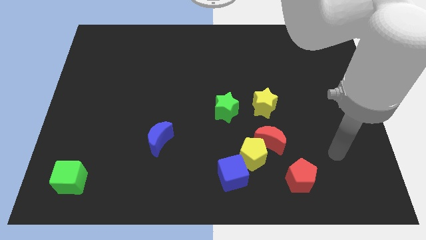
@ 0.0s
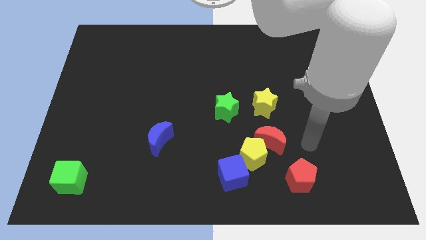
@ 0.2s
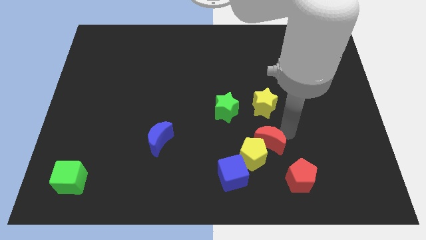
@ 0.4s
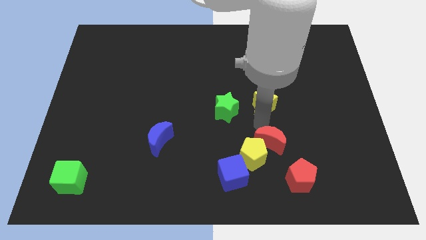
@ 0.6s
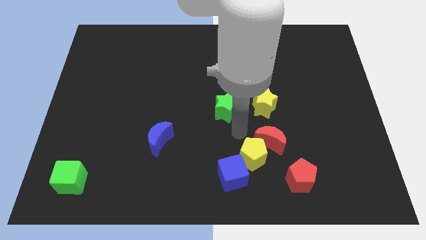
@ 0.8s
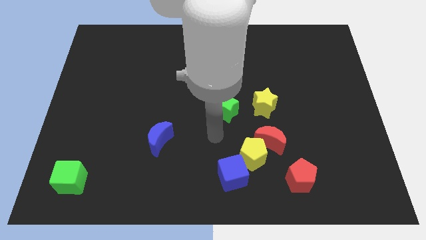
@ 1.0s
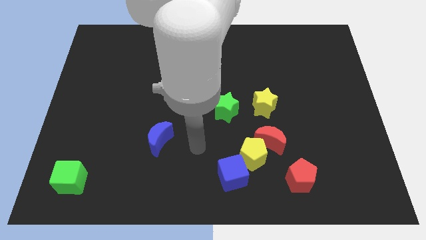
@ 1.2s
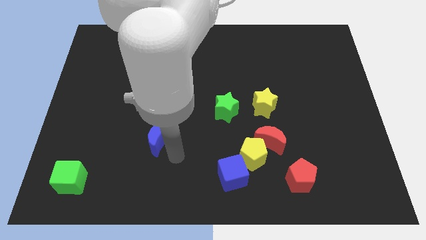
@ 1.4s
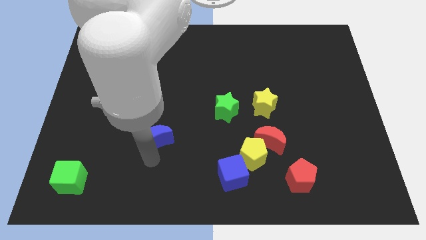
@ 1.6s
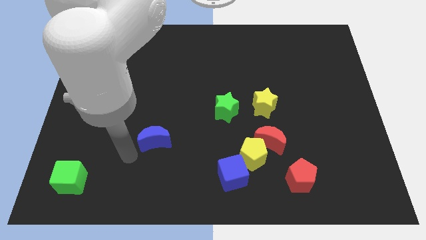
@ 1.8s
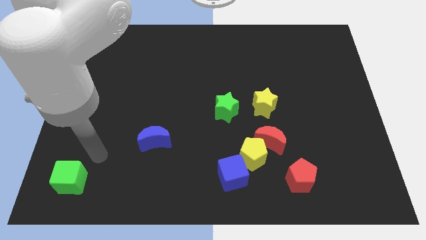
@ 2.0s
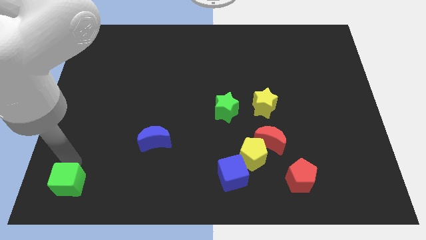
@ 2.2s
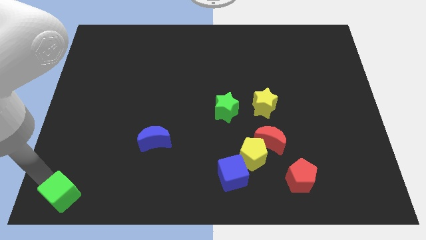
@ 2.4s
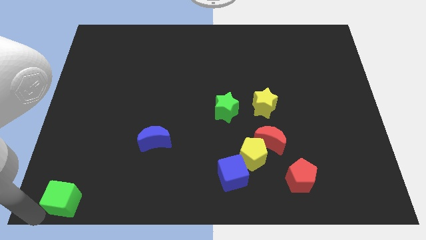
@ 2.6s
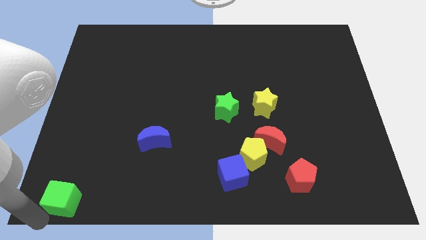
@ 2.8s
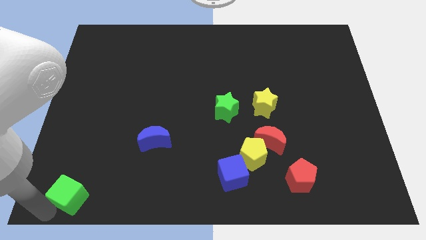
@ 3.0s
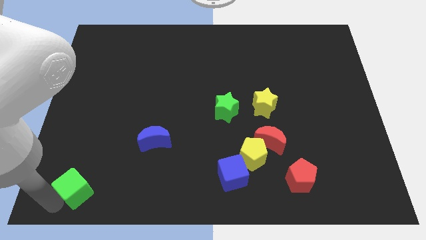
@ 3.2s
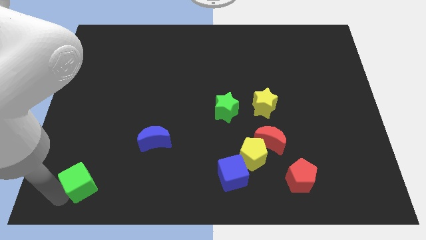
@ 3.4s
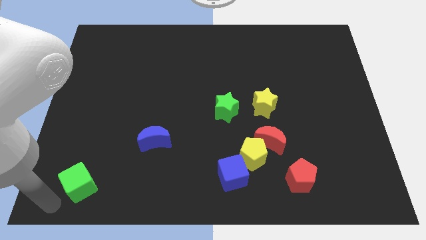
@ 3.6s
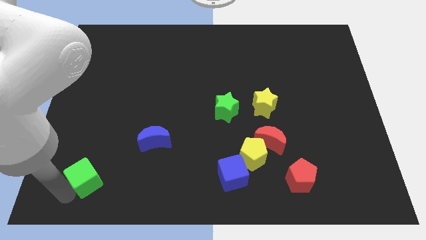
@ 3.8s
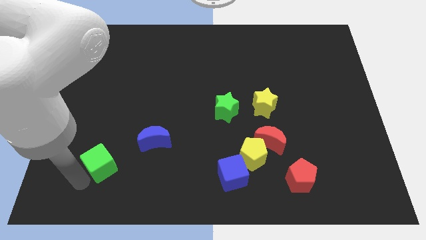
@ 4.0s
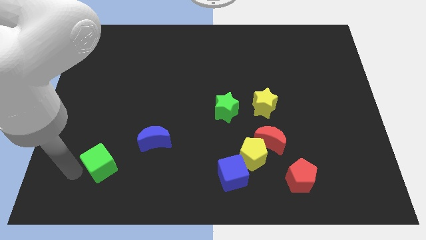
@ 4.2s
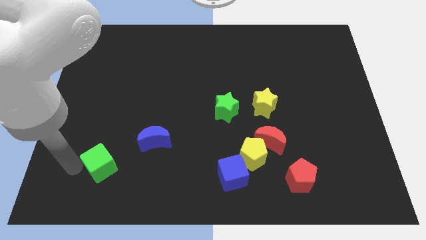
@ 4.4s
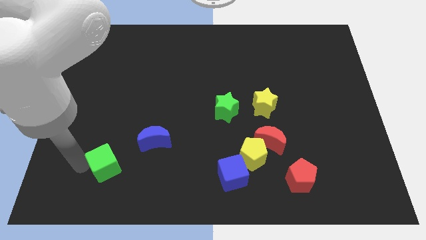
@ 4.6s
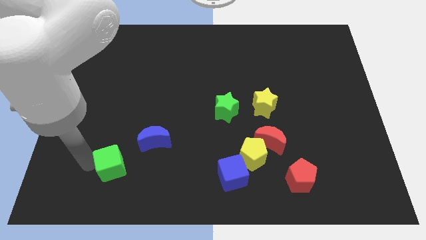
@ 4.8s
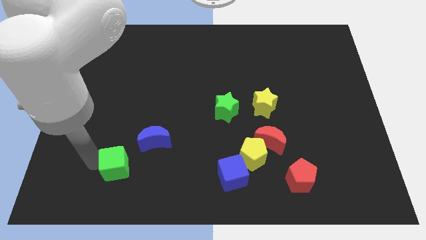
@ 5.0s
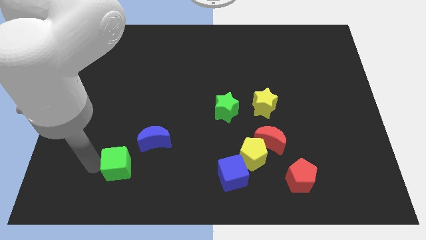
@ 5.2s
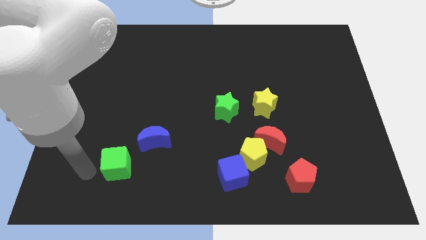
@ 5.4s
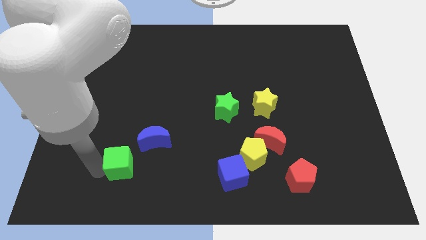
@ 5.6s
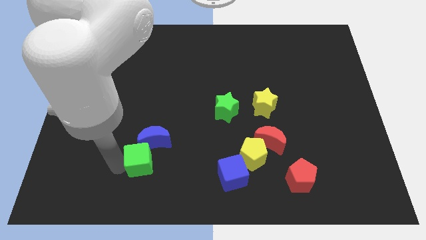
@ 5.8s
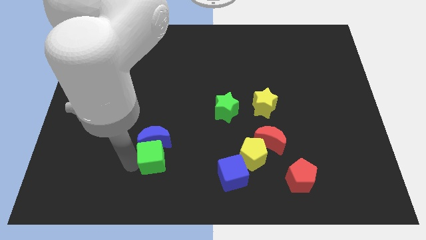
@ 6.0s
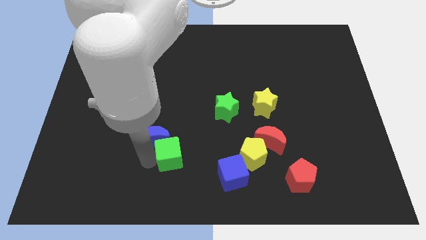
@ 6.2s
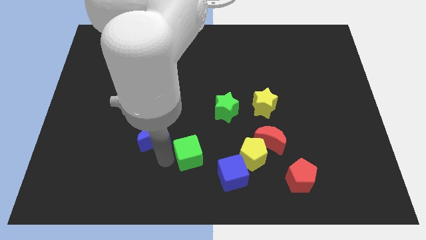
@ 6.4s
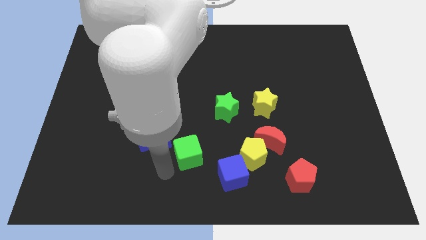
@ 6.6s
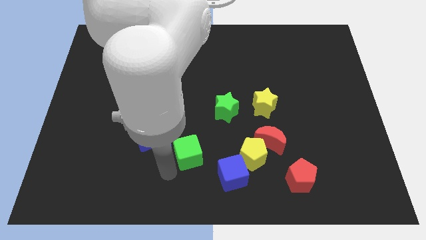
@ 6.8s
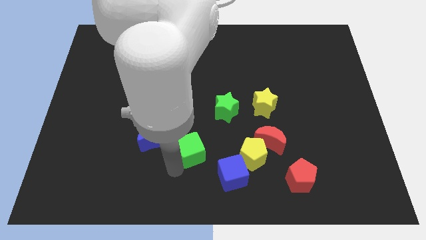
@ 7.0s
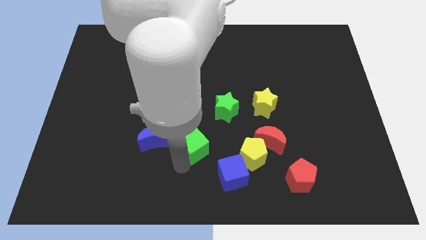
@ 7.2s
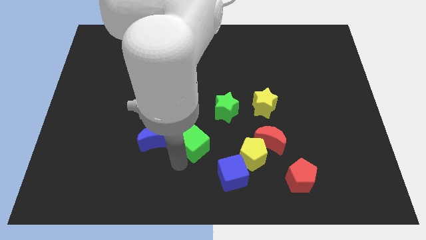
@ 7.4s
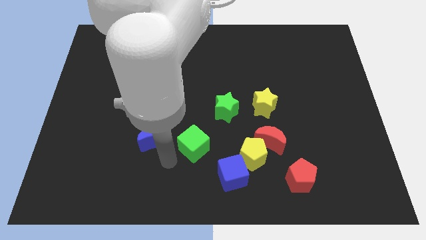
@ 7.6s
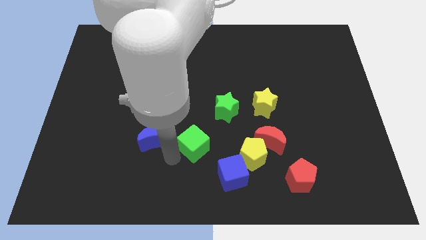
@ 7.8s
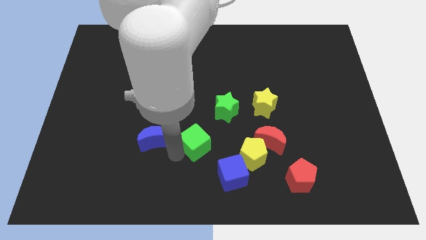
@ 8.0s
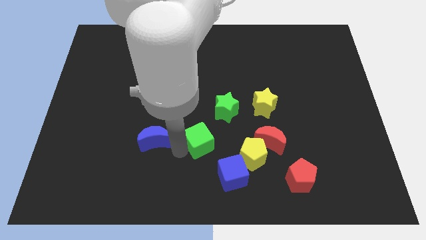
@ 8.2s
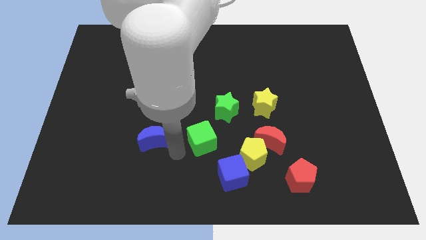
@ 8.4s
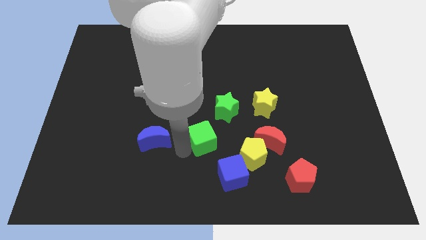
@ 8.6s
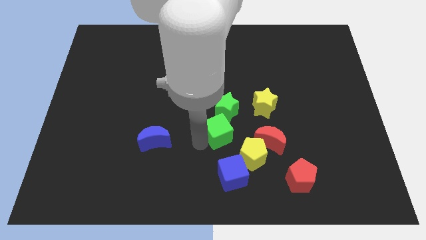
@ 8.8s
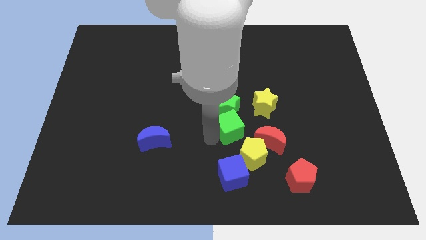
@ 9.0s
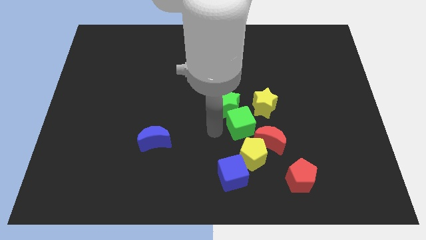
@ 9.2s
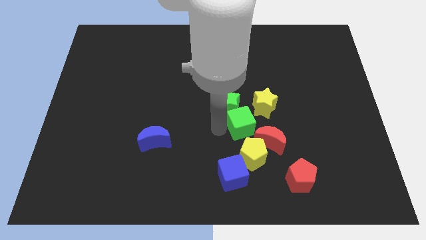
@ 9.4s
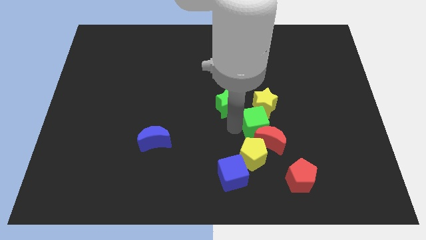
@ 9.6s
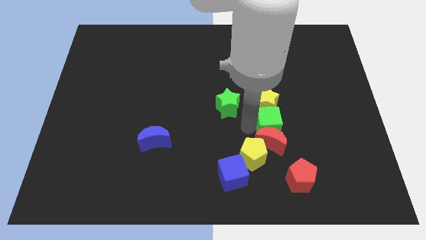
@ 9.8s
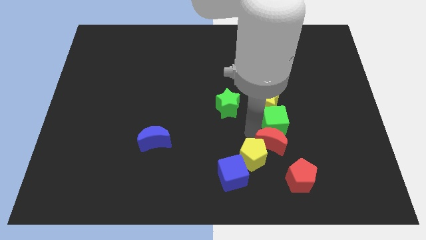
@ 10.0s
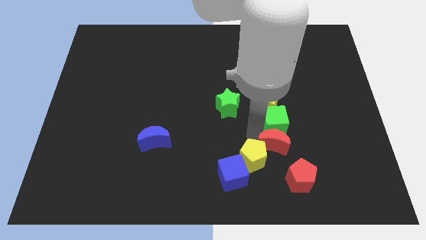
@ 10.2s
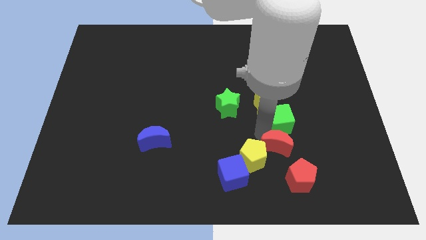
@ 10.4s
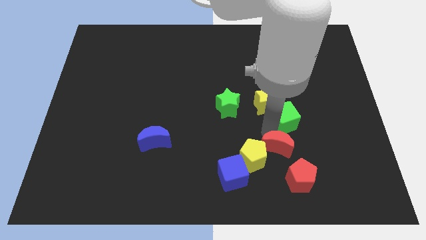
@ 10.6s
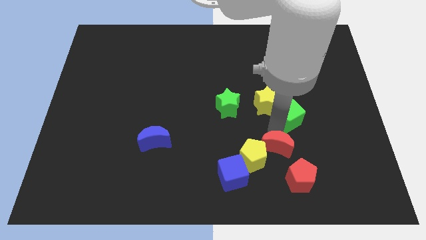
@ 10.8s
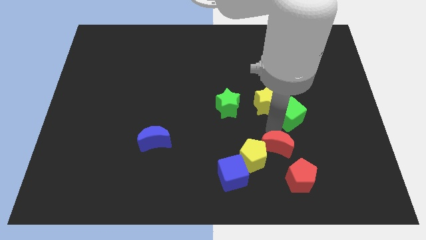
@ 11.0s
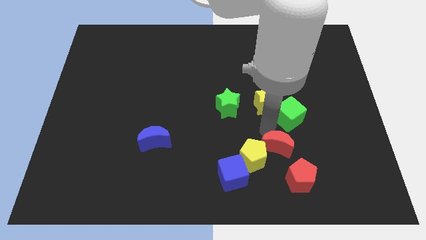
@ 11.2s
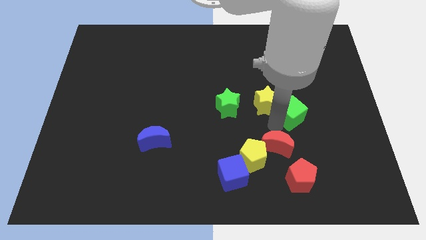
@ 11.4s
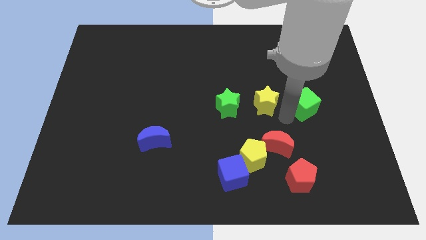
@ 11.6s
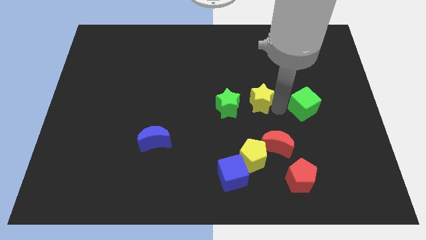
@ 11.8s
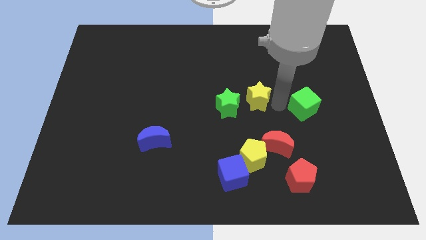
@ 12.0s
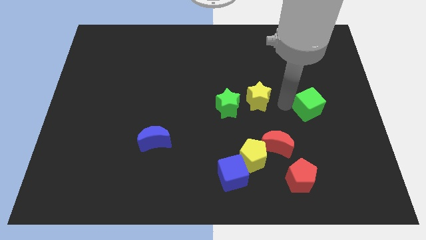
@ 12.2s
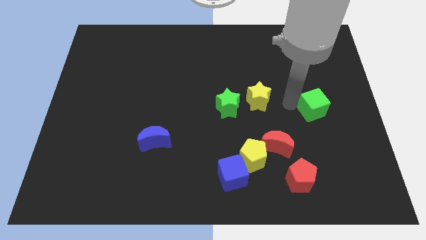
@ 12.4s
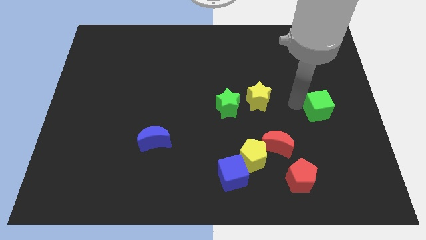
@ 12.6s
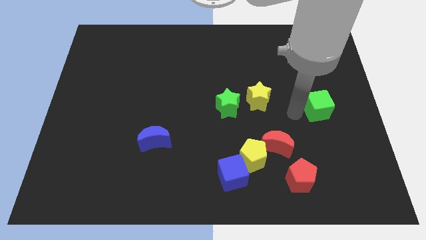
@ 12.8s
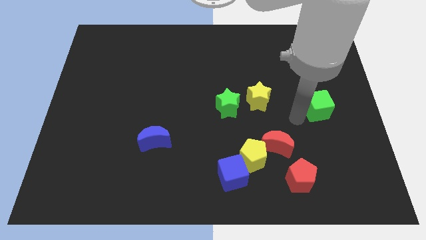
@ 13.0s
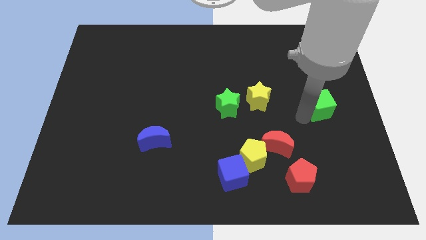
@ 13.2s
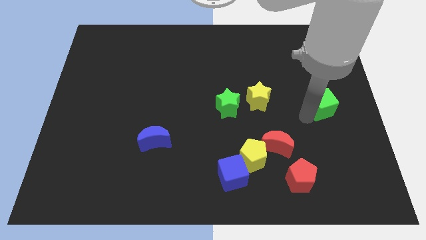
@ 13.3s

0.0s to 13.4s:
push the green cube to the center right
